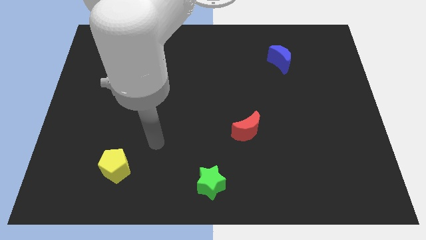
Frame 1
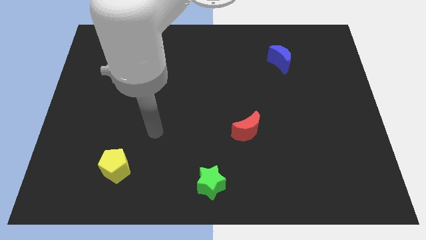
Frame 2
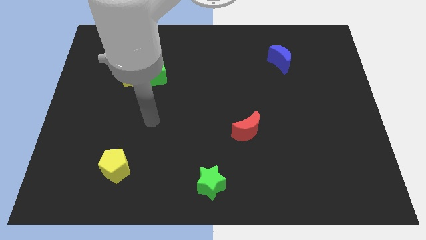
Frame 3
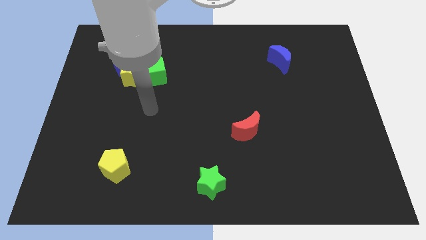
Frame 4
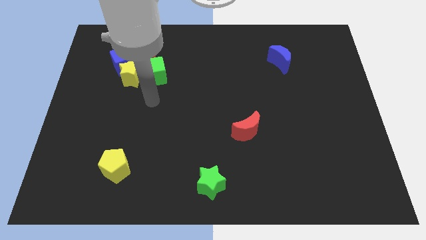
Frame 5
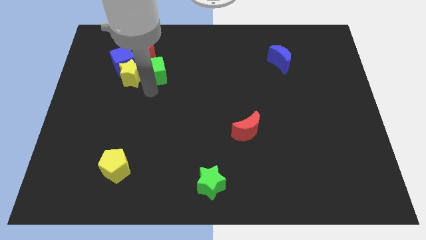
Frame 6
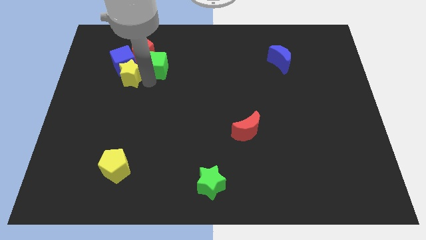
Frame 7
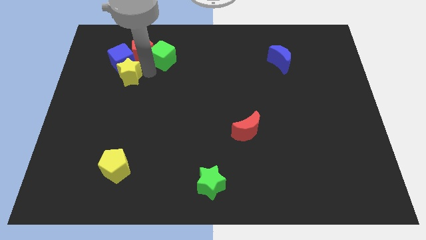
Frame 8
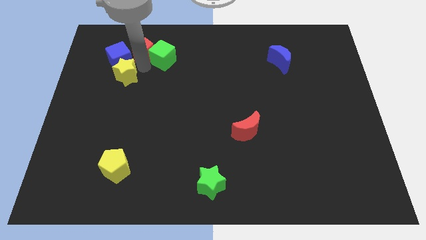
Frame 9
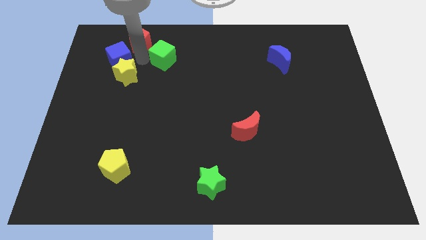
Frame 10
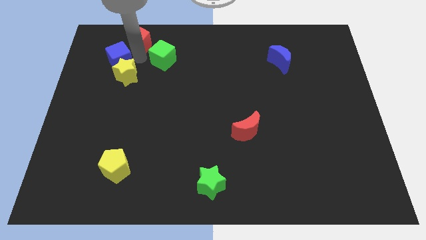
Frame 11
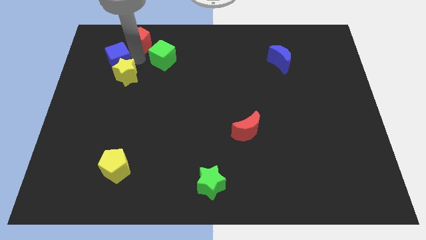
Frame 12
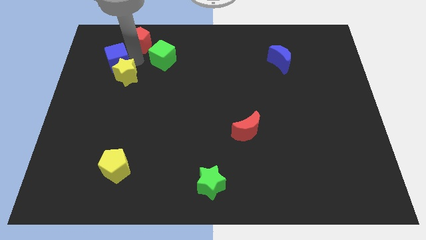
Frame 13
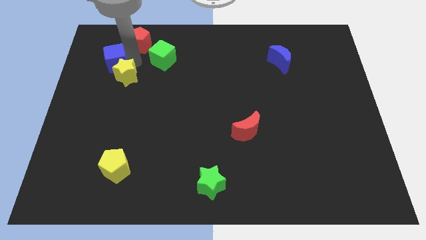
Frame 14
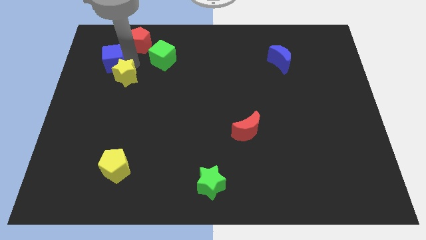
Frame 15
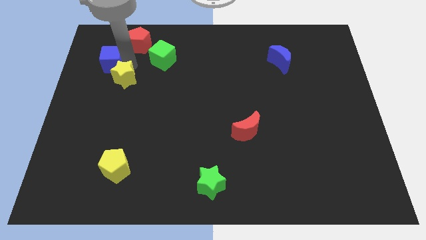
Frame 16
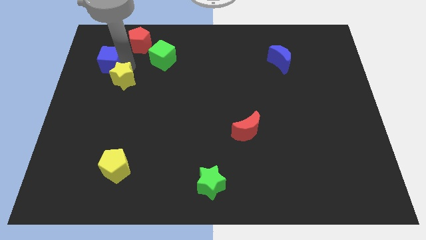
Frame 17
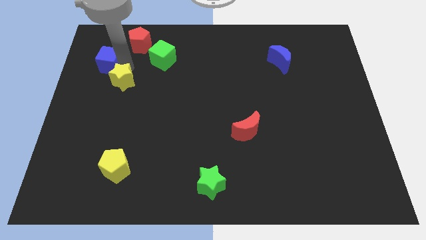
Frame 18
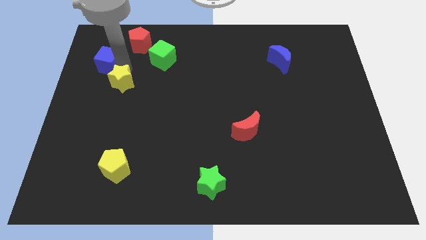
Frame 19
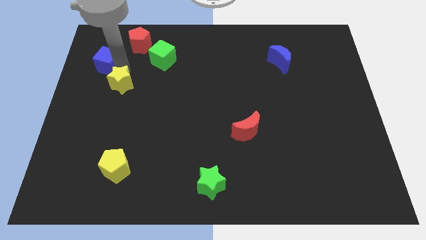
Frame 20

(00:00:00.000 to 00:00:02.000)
pull the yellow star apart from the blue cube, green cube, and red pentagon

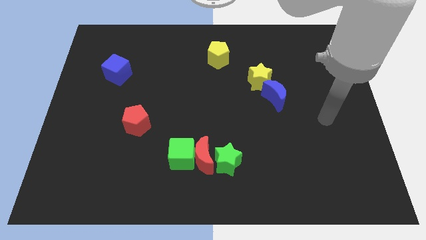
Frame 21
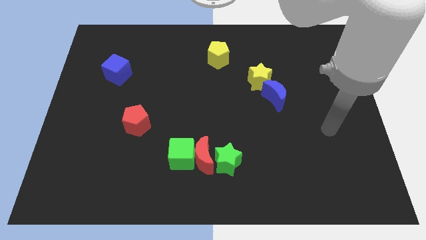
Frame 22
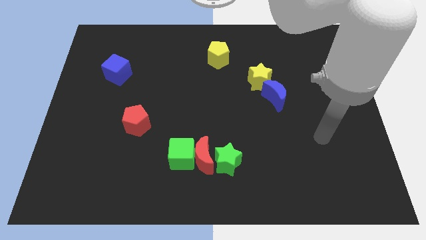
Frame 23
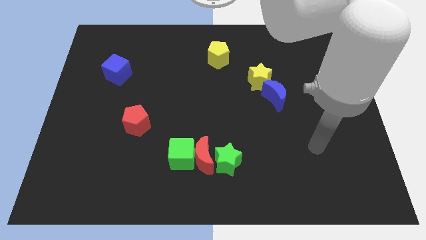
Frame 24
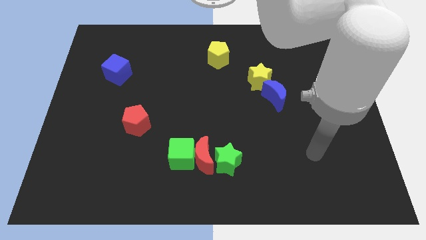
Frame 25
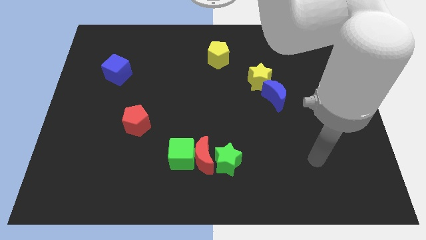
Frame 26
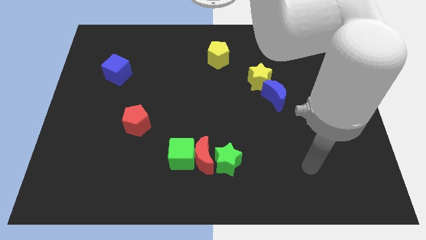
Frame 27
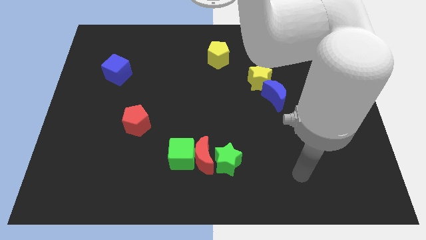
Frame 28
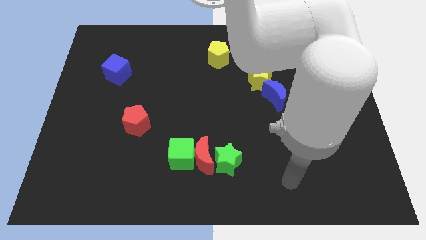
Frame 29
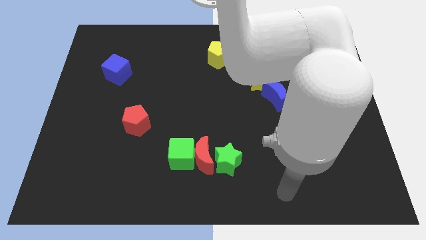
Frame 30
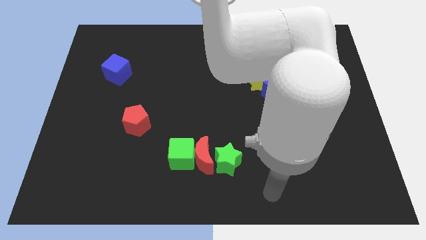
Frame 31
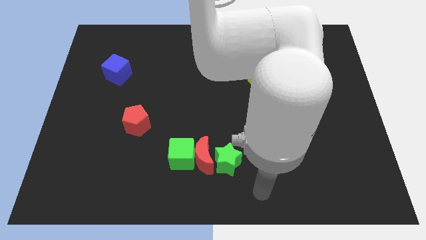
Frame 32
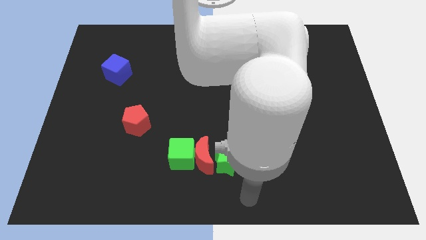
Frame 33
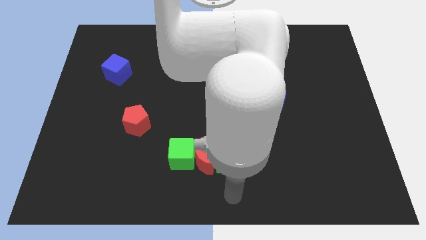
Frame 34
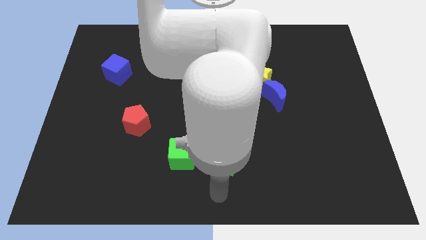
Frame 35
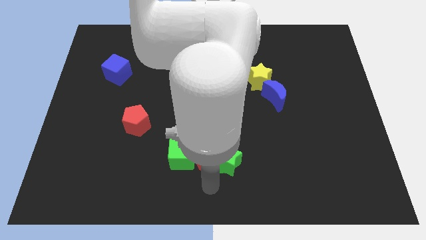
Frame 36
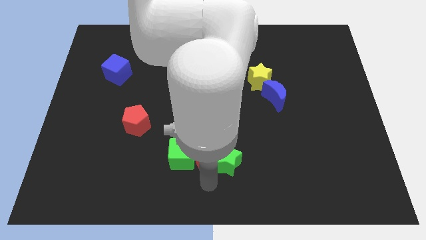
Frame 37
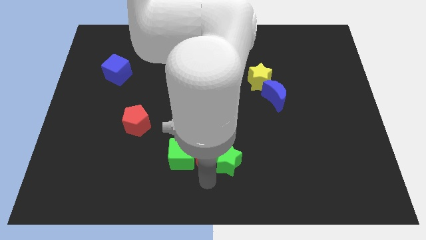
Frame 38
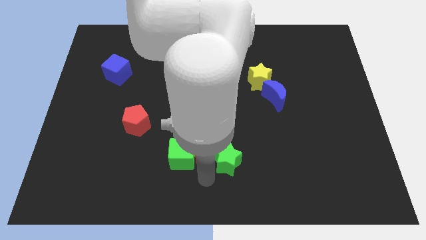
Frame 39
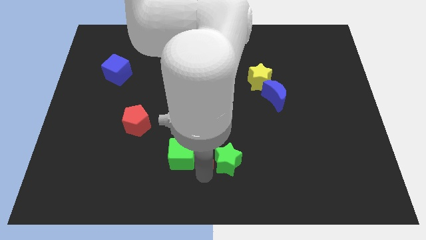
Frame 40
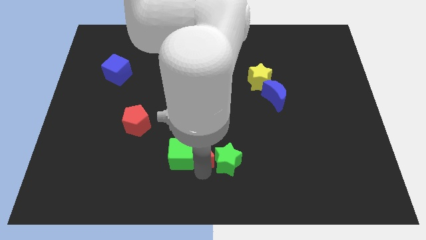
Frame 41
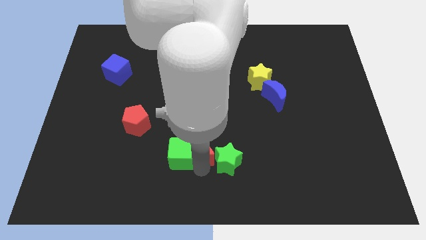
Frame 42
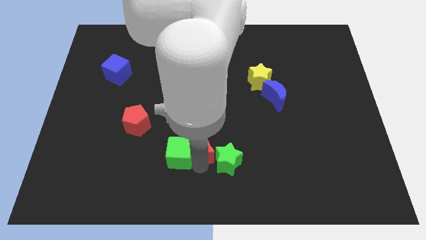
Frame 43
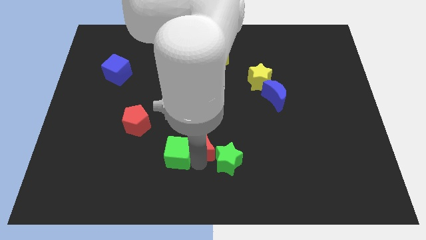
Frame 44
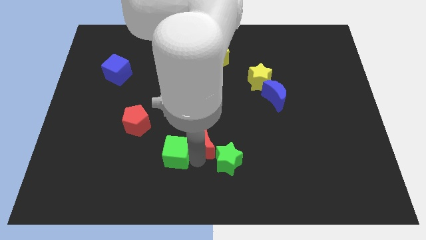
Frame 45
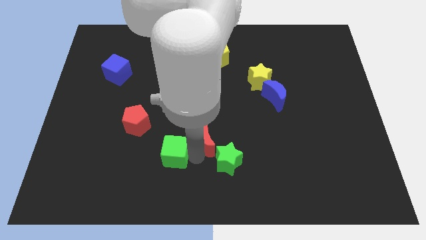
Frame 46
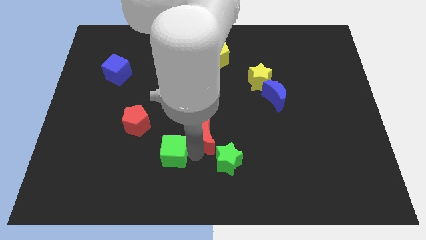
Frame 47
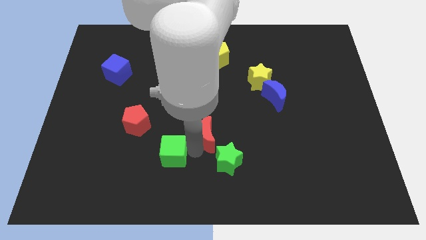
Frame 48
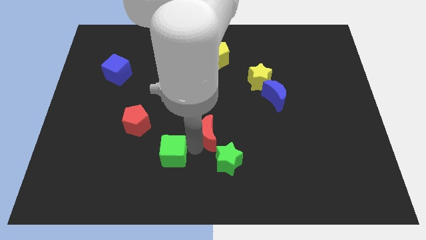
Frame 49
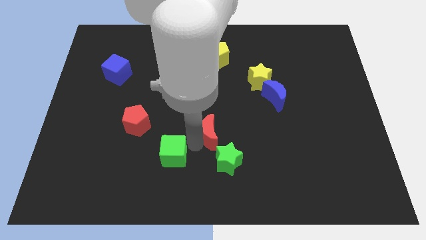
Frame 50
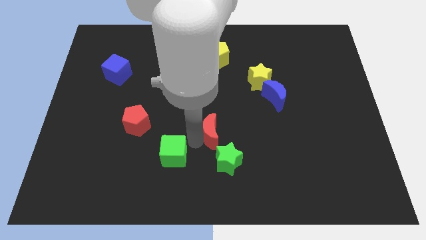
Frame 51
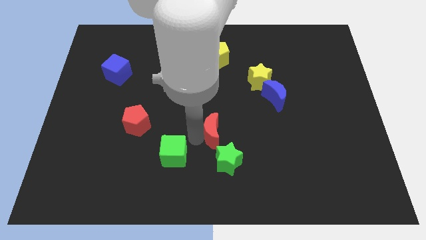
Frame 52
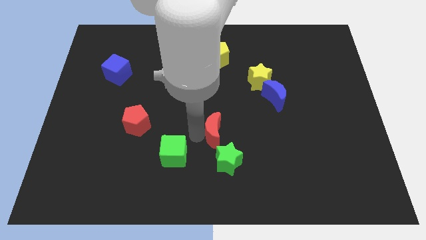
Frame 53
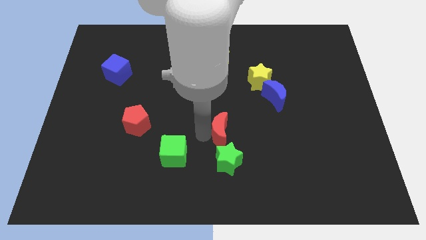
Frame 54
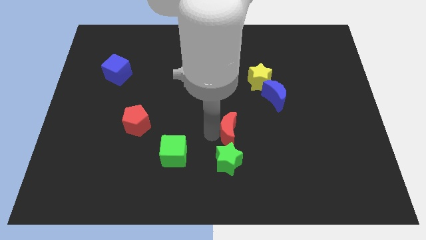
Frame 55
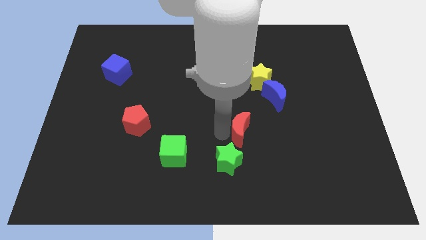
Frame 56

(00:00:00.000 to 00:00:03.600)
move the red moon away from the green cube and green star

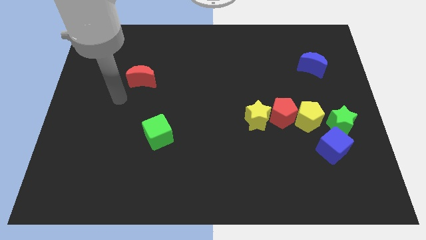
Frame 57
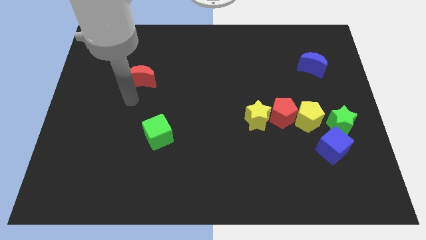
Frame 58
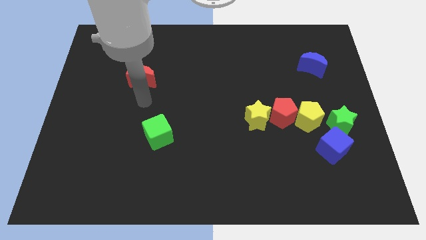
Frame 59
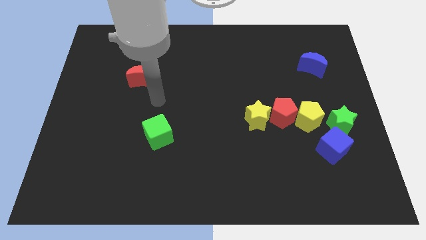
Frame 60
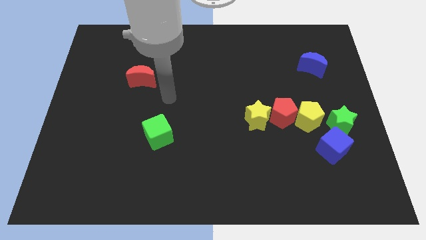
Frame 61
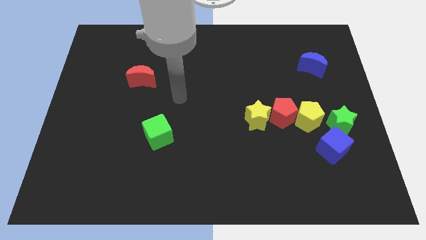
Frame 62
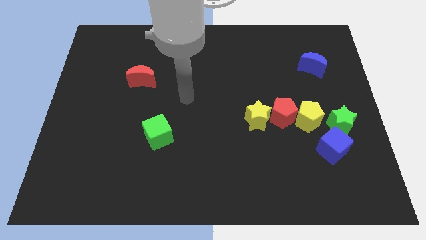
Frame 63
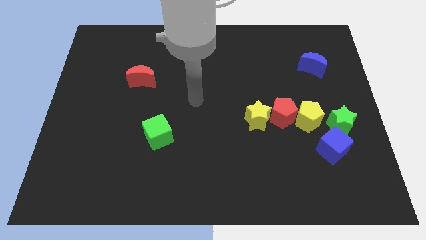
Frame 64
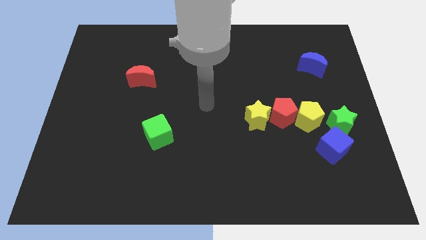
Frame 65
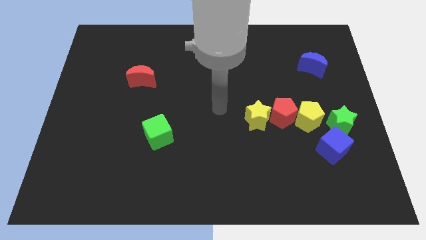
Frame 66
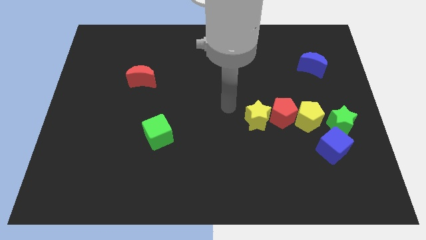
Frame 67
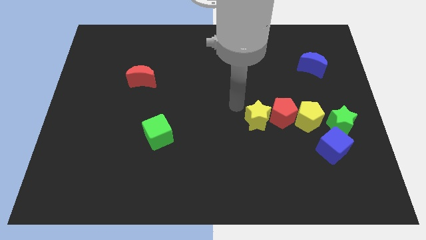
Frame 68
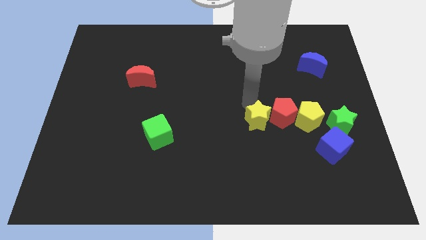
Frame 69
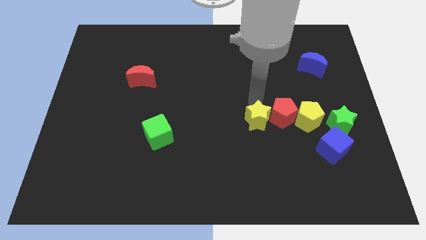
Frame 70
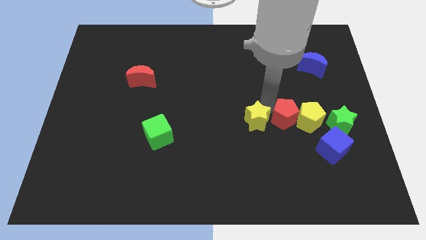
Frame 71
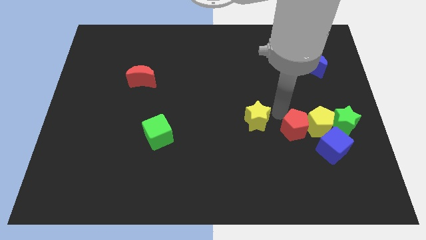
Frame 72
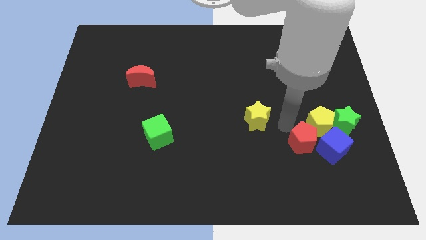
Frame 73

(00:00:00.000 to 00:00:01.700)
move the yellow star away from the red pentagon

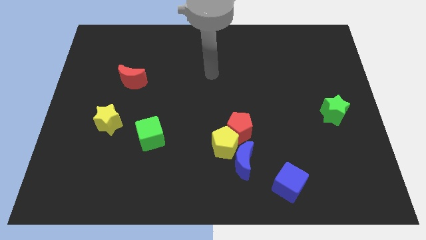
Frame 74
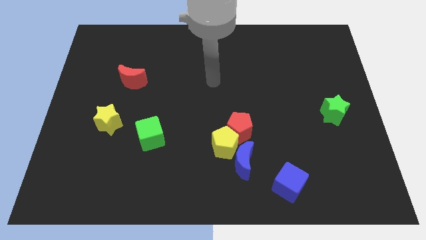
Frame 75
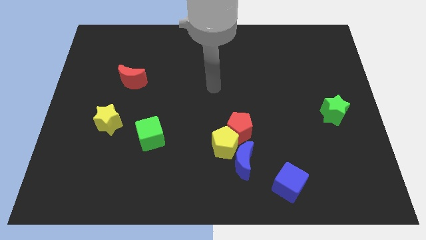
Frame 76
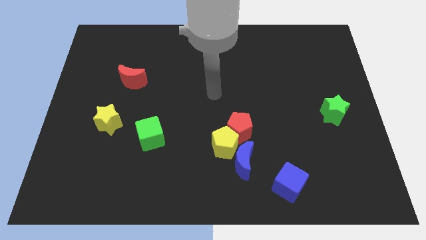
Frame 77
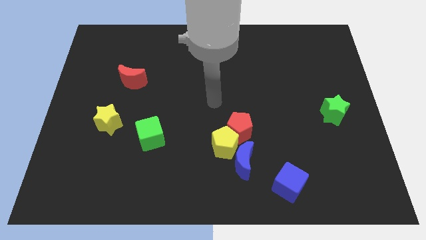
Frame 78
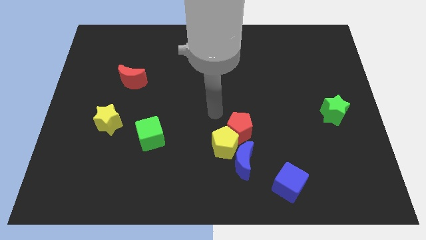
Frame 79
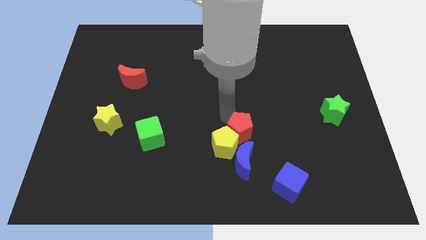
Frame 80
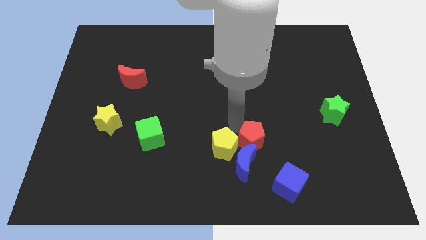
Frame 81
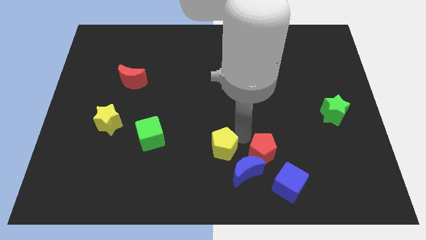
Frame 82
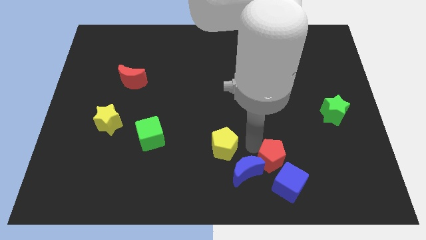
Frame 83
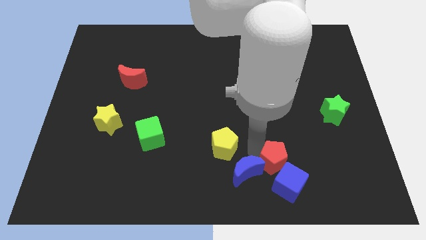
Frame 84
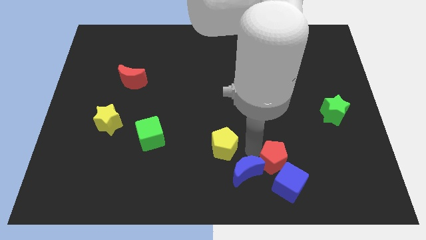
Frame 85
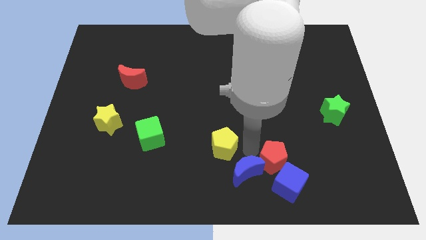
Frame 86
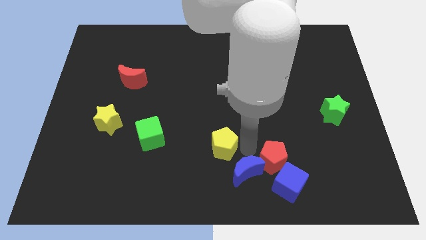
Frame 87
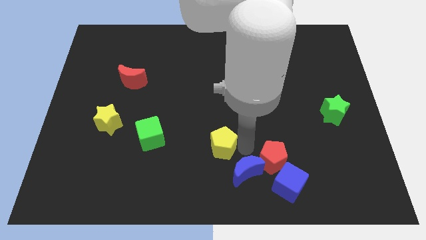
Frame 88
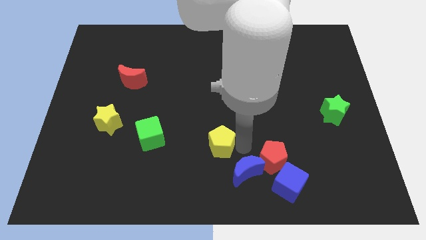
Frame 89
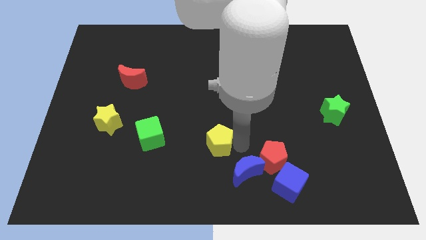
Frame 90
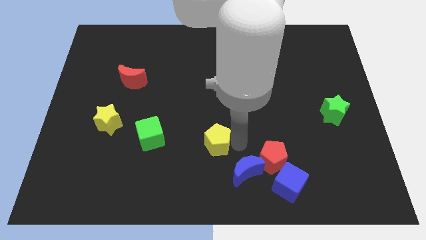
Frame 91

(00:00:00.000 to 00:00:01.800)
move the yellow pentagon away from the red pentagon and blue moon

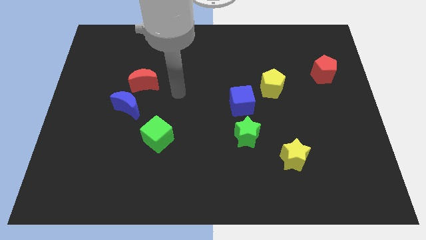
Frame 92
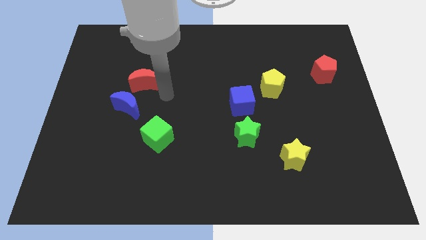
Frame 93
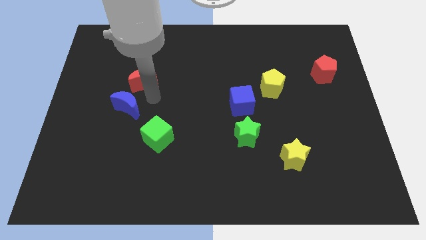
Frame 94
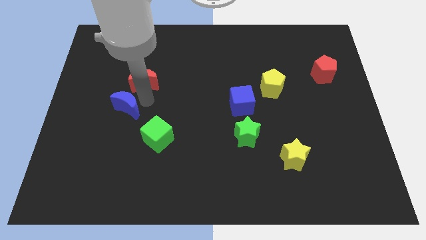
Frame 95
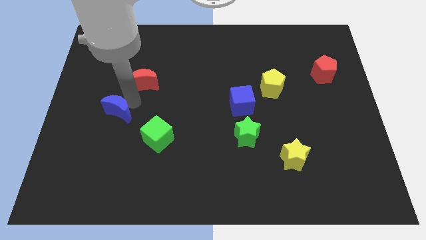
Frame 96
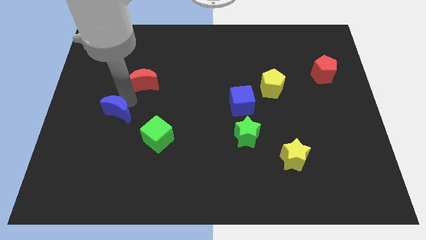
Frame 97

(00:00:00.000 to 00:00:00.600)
separate the red moon from the blue moon
